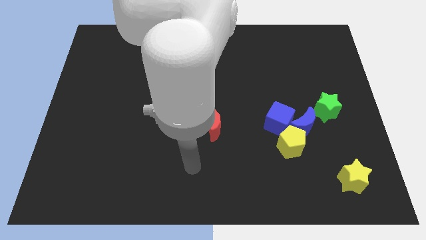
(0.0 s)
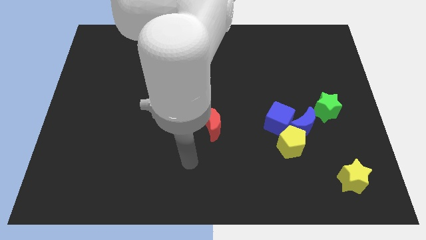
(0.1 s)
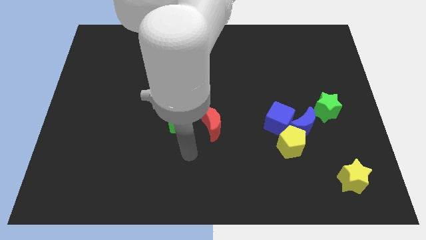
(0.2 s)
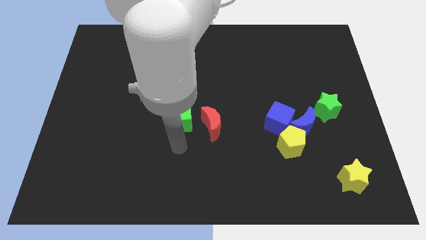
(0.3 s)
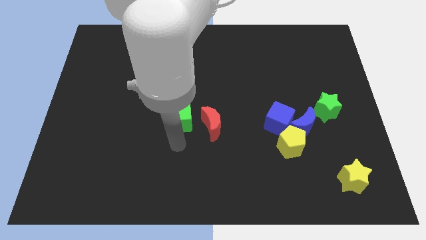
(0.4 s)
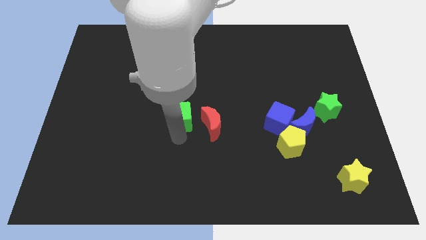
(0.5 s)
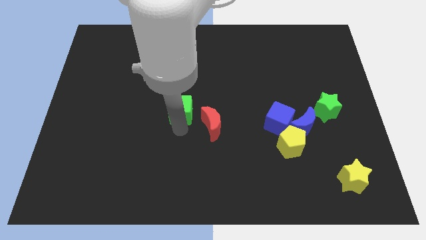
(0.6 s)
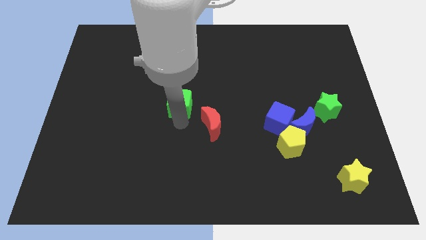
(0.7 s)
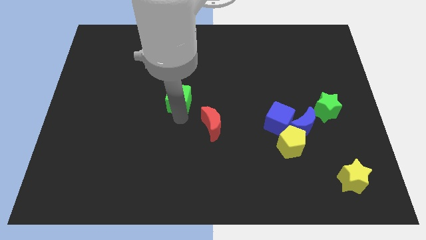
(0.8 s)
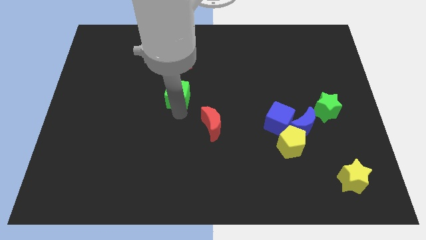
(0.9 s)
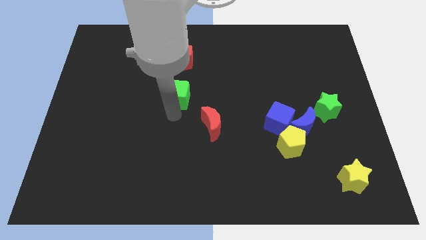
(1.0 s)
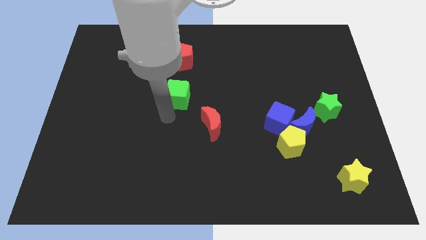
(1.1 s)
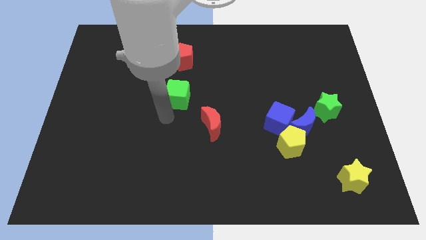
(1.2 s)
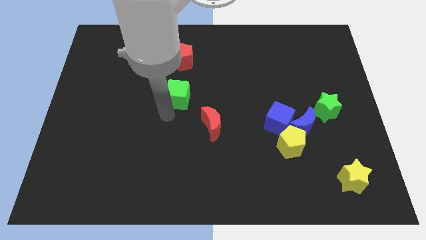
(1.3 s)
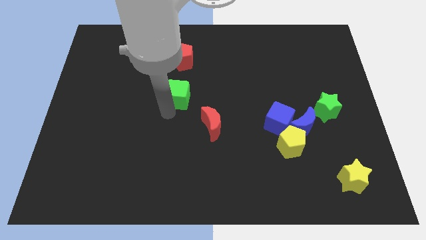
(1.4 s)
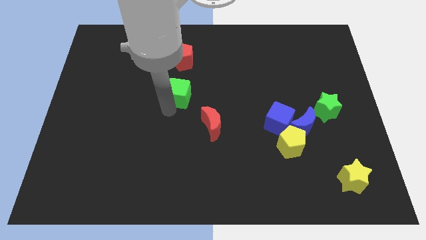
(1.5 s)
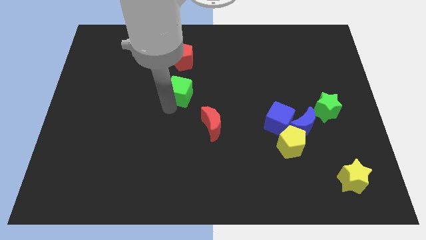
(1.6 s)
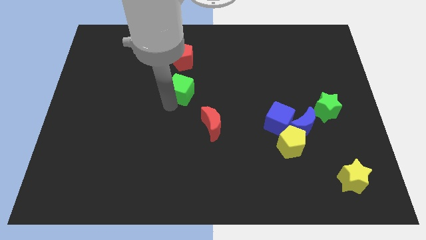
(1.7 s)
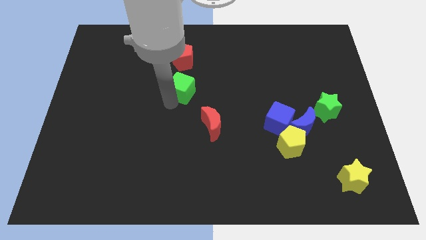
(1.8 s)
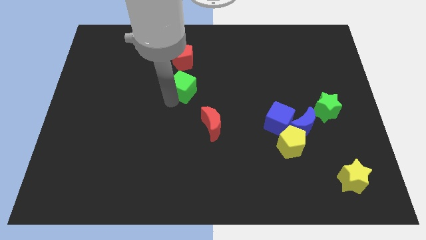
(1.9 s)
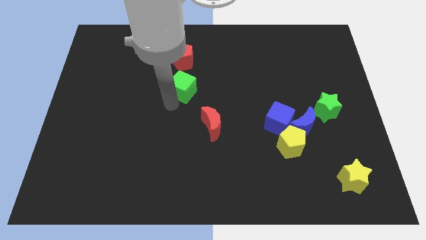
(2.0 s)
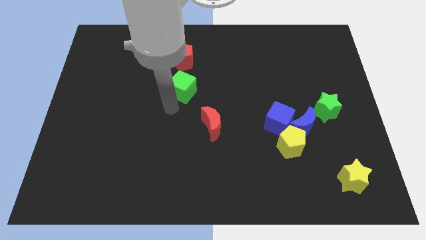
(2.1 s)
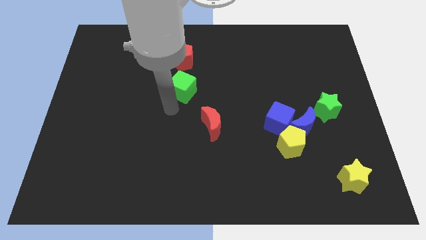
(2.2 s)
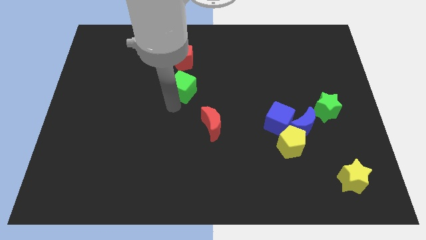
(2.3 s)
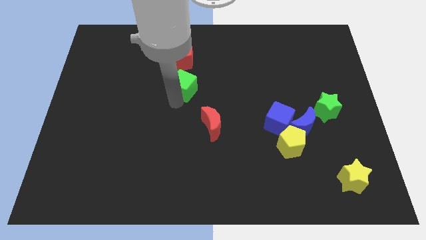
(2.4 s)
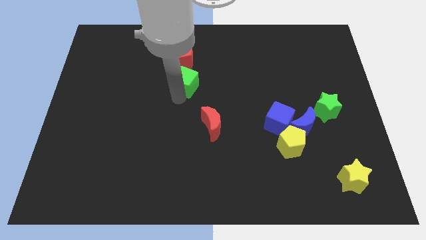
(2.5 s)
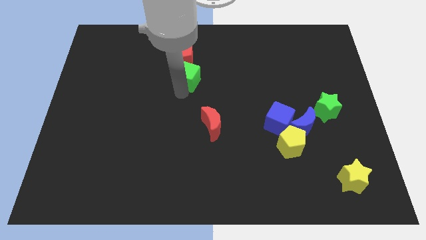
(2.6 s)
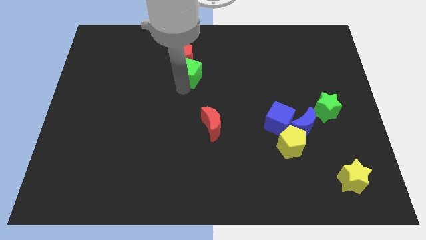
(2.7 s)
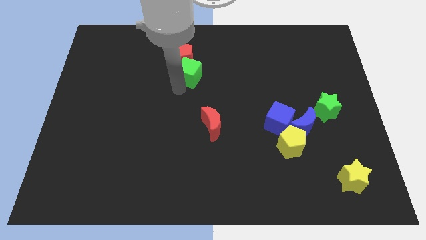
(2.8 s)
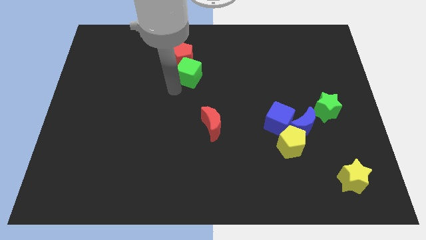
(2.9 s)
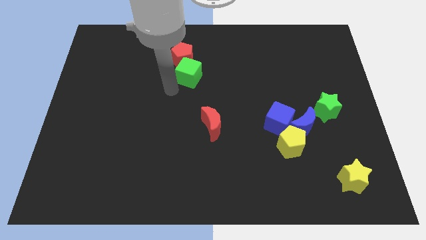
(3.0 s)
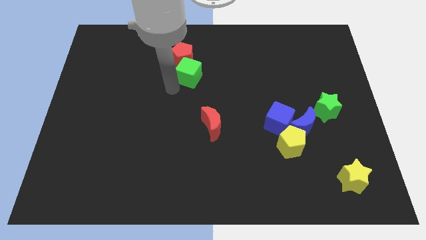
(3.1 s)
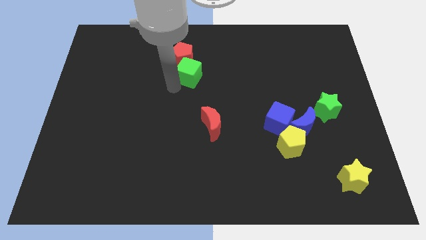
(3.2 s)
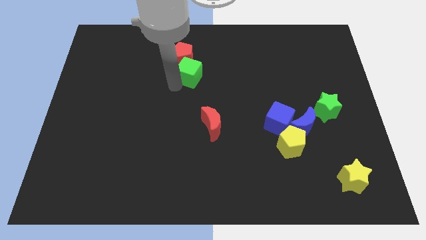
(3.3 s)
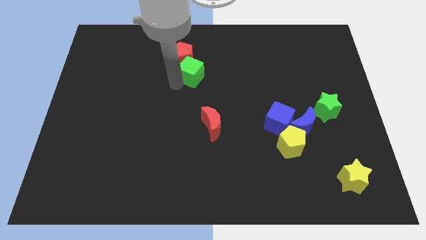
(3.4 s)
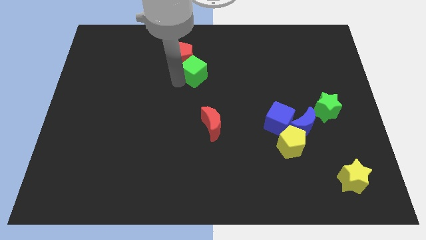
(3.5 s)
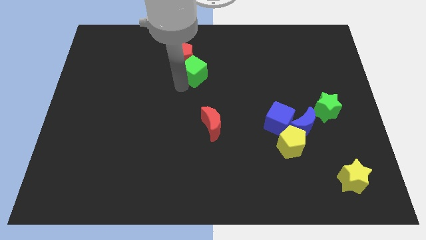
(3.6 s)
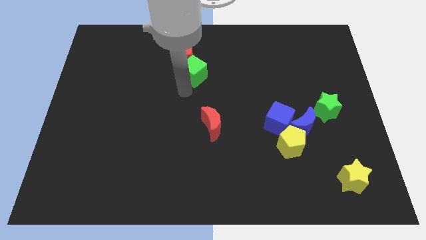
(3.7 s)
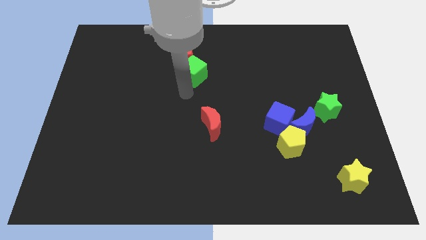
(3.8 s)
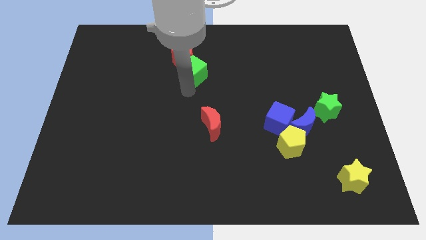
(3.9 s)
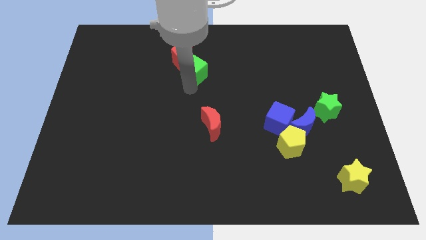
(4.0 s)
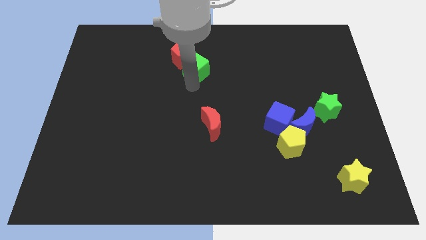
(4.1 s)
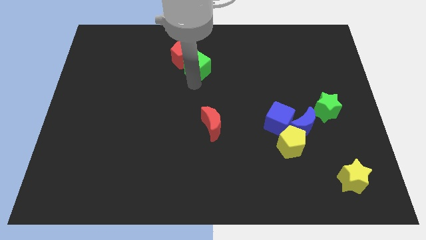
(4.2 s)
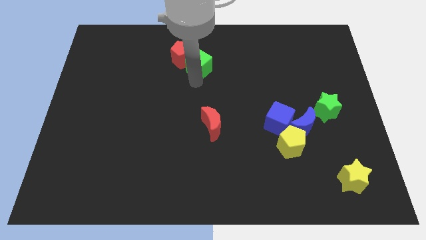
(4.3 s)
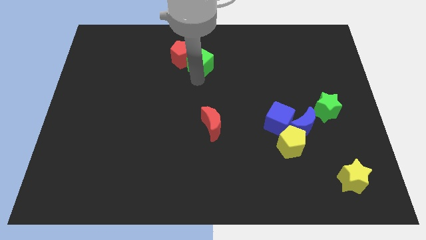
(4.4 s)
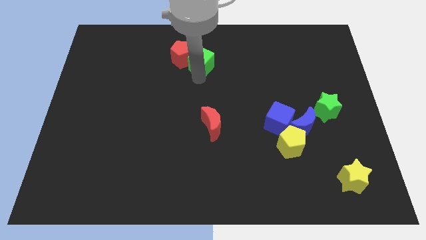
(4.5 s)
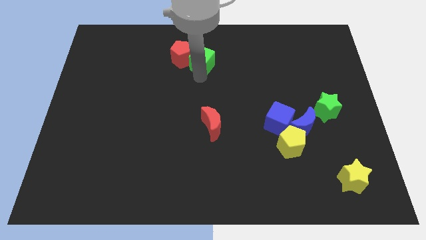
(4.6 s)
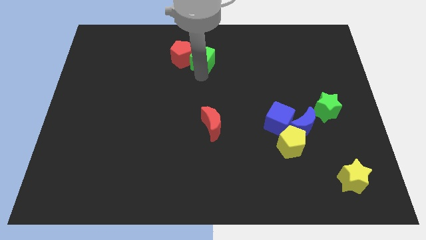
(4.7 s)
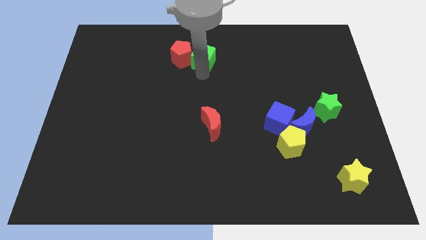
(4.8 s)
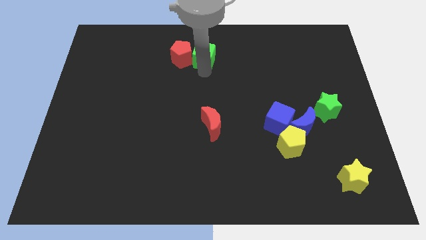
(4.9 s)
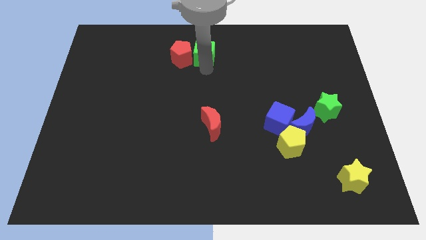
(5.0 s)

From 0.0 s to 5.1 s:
move the green cube to the top side
